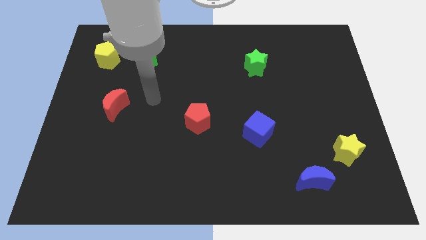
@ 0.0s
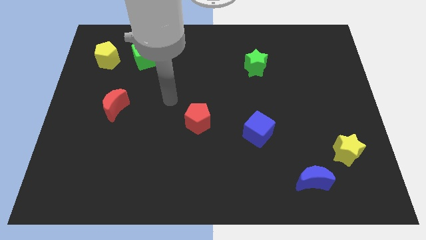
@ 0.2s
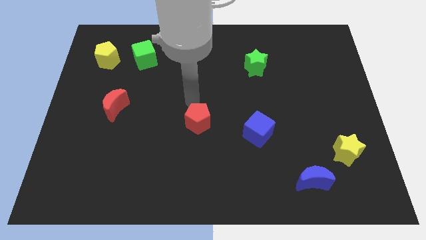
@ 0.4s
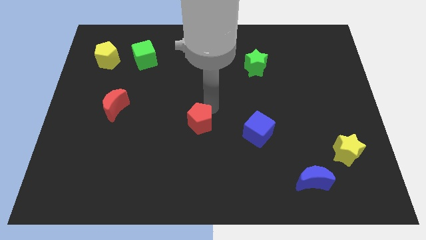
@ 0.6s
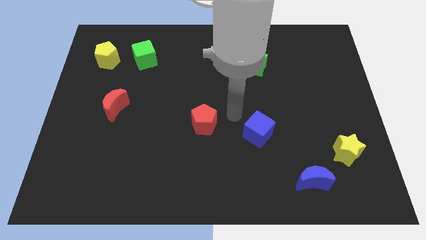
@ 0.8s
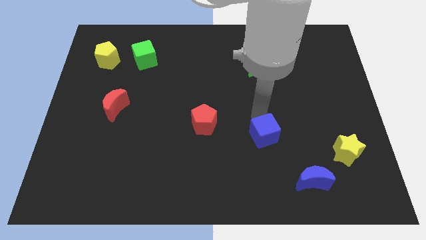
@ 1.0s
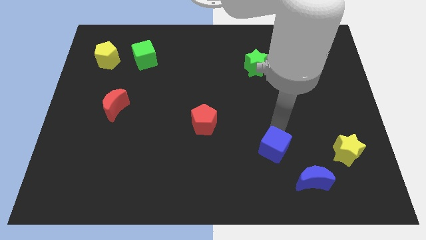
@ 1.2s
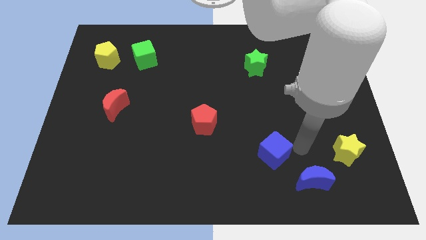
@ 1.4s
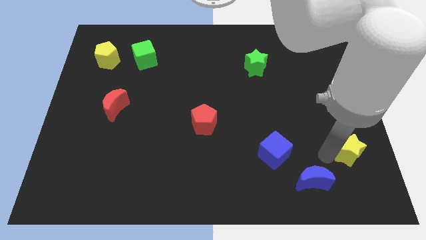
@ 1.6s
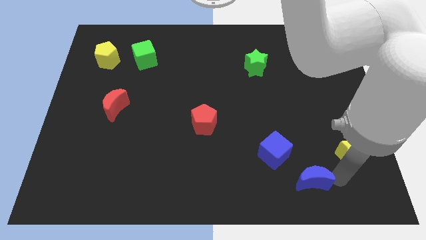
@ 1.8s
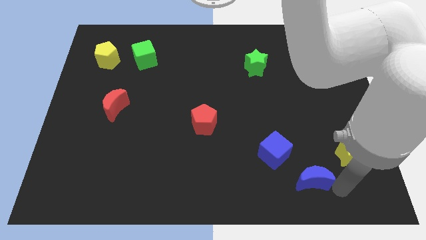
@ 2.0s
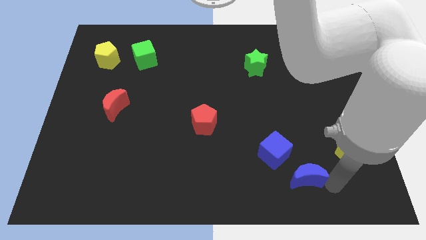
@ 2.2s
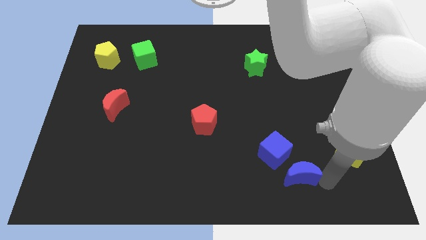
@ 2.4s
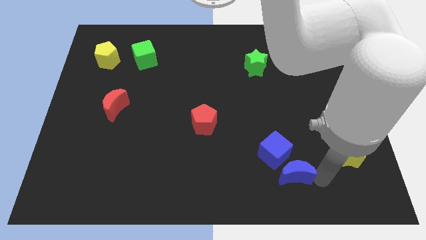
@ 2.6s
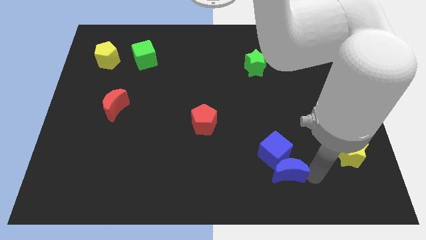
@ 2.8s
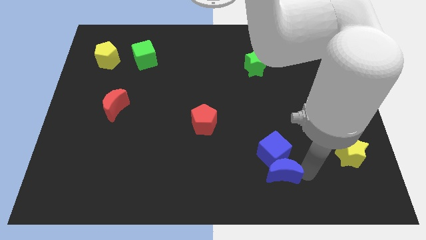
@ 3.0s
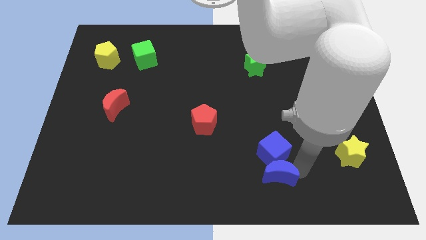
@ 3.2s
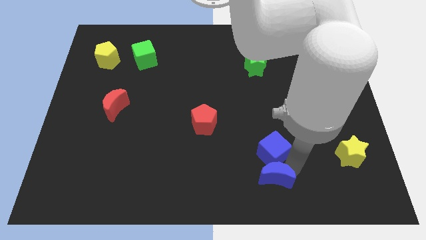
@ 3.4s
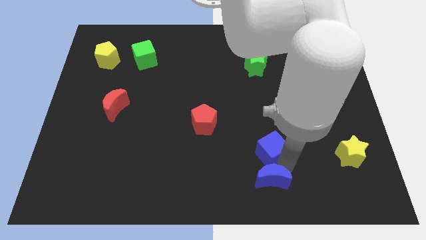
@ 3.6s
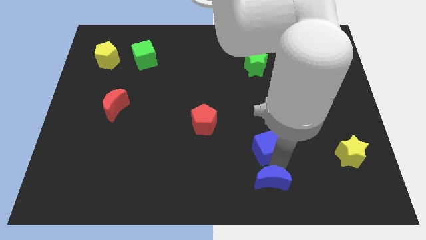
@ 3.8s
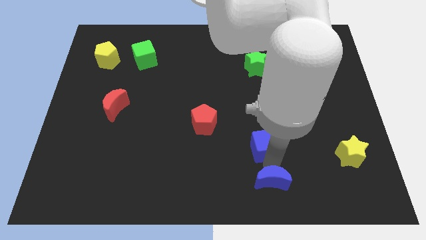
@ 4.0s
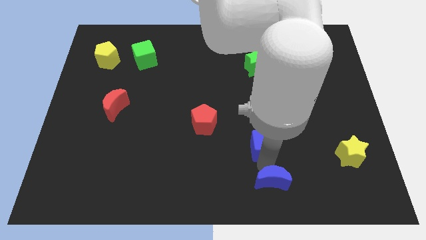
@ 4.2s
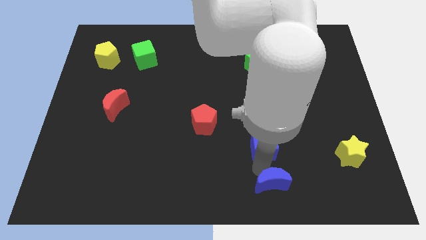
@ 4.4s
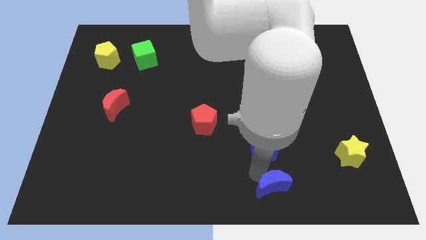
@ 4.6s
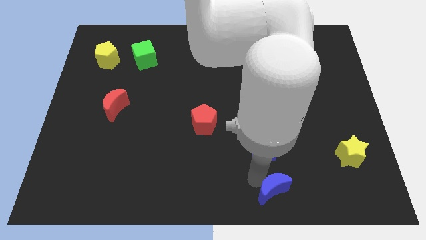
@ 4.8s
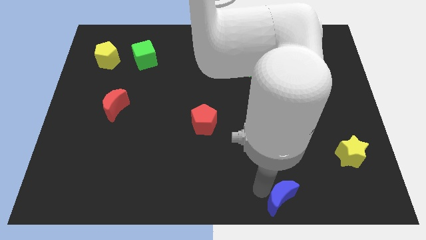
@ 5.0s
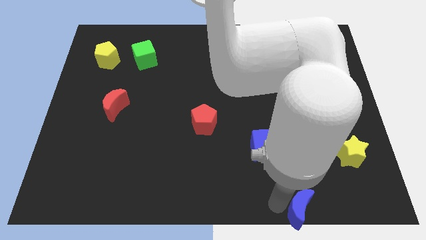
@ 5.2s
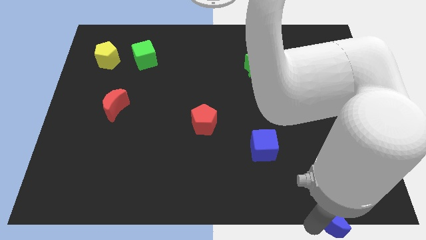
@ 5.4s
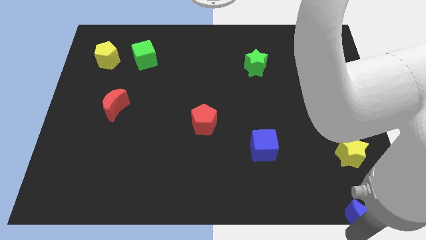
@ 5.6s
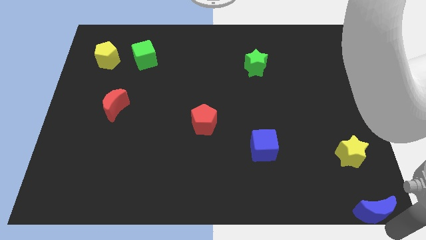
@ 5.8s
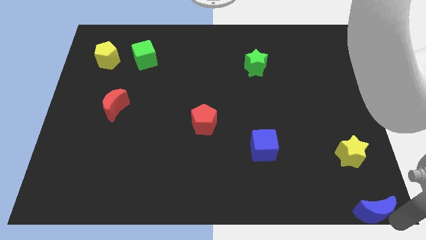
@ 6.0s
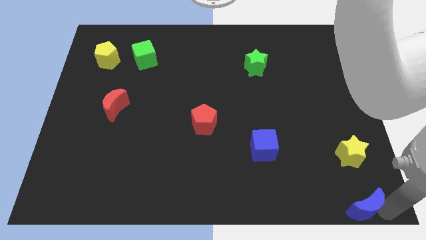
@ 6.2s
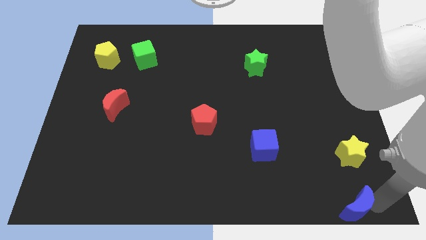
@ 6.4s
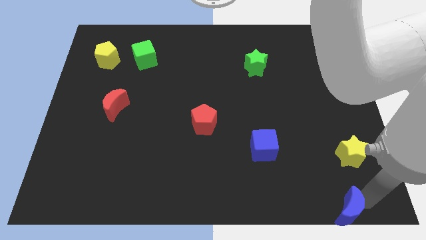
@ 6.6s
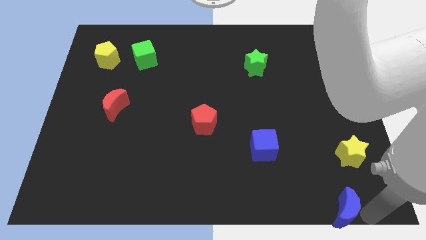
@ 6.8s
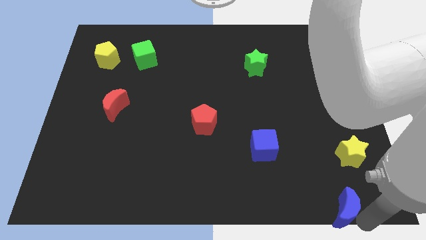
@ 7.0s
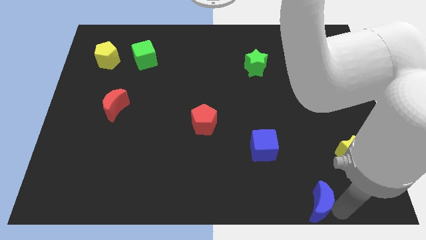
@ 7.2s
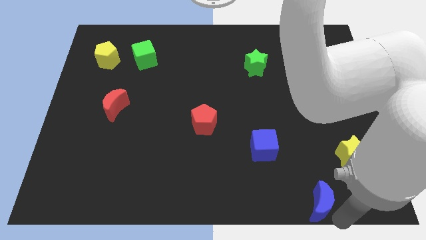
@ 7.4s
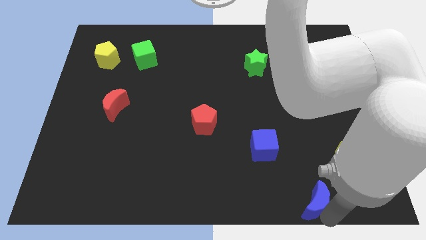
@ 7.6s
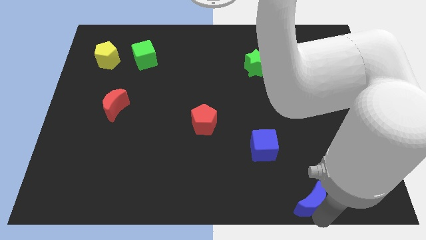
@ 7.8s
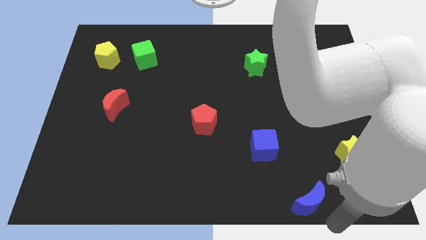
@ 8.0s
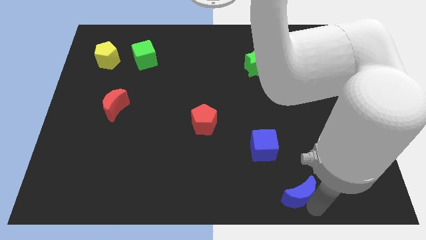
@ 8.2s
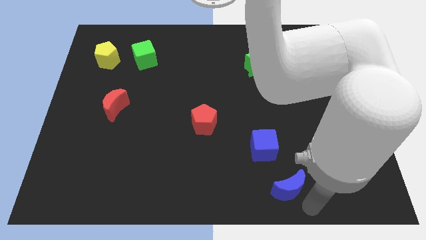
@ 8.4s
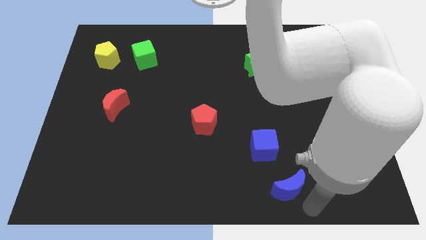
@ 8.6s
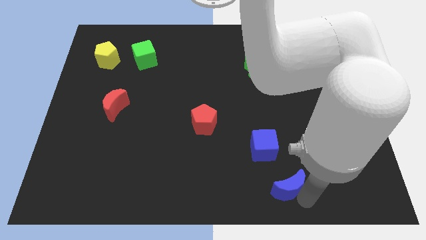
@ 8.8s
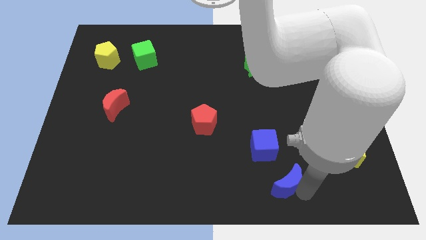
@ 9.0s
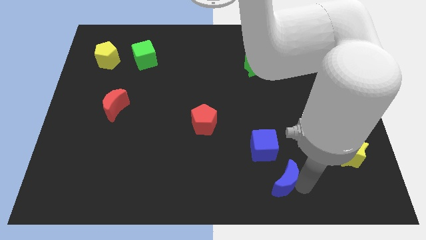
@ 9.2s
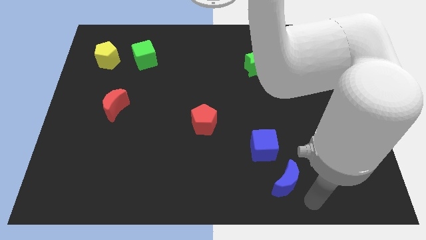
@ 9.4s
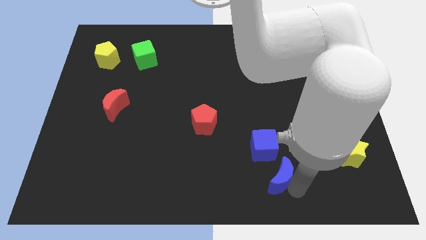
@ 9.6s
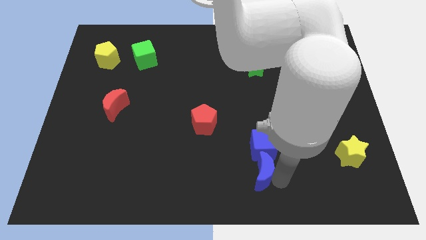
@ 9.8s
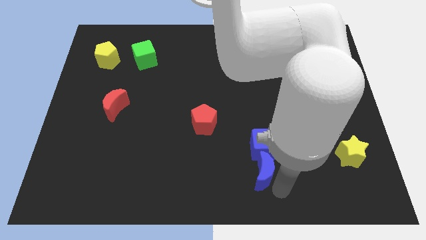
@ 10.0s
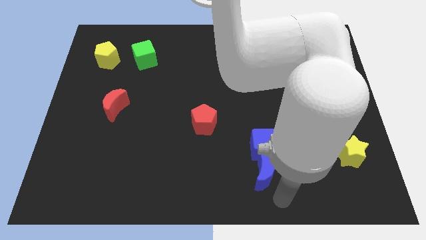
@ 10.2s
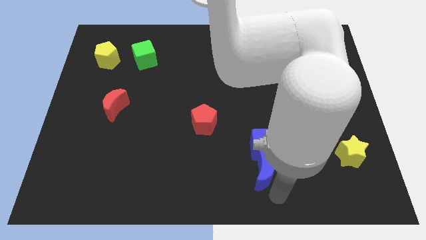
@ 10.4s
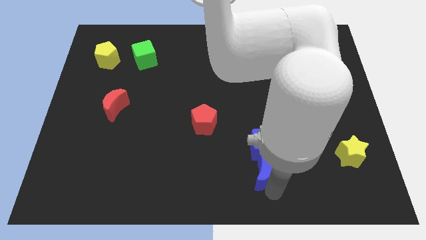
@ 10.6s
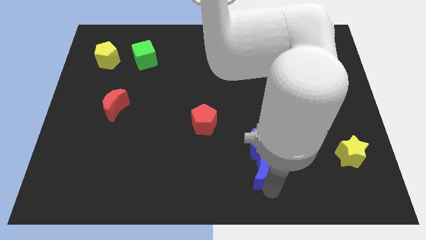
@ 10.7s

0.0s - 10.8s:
slightly push the blue moon upwards and left diagonally

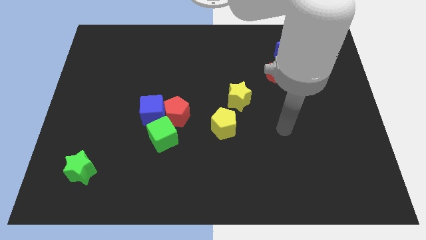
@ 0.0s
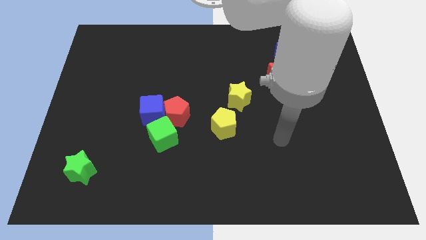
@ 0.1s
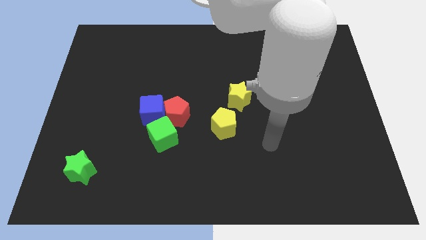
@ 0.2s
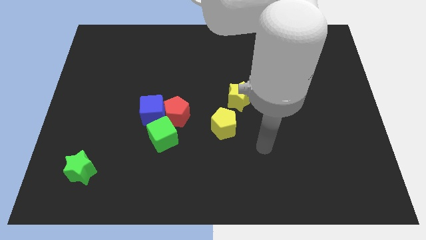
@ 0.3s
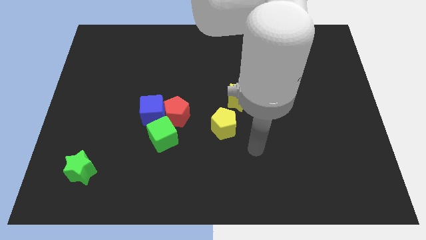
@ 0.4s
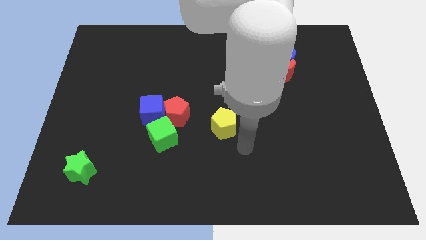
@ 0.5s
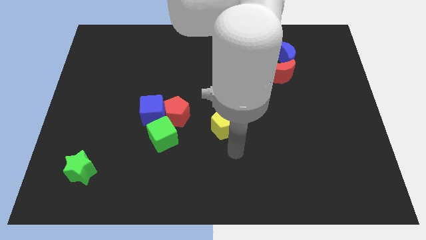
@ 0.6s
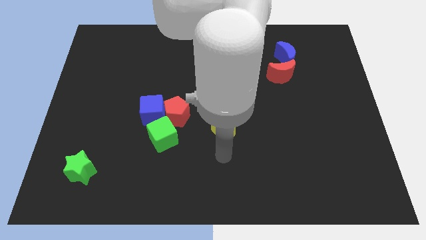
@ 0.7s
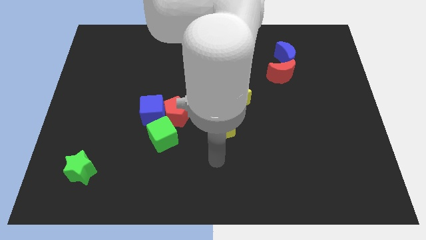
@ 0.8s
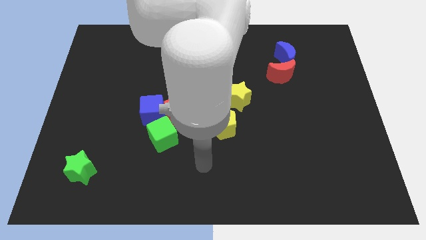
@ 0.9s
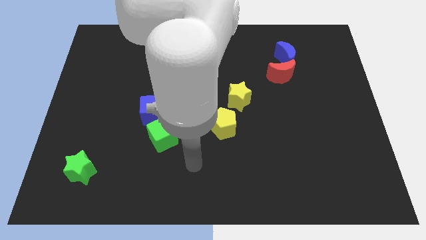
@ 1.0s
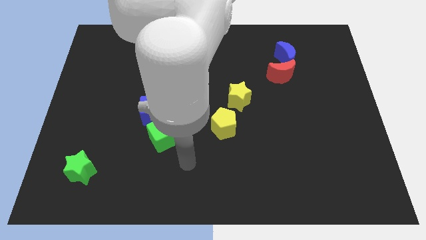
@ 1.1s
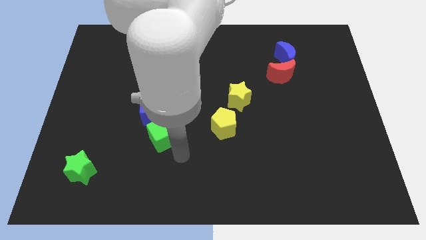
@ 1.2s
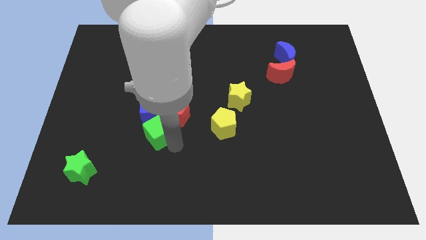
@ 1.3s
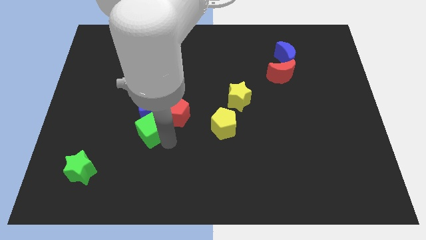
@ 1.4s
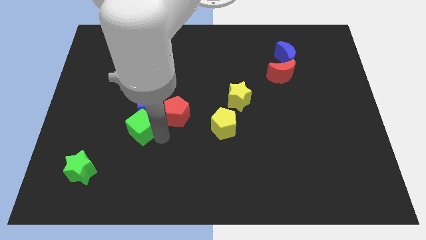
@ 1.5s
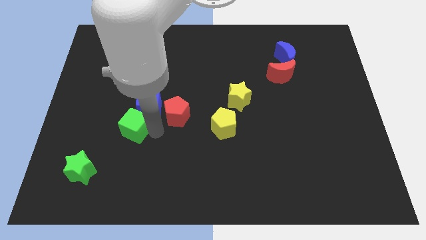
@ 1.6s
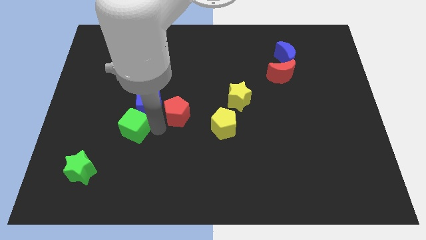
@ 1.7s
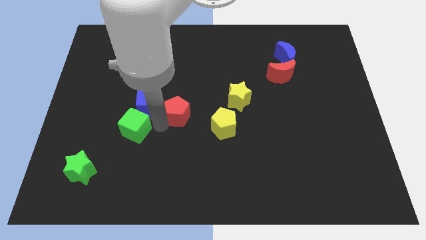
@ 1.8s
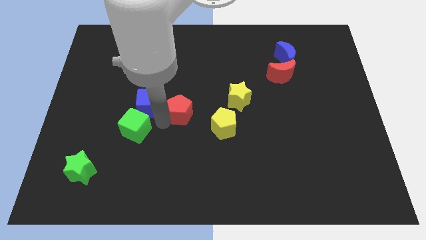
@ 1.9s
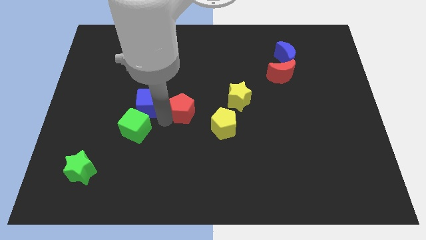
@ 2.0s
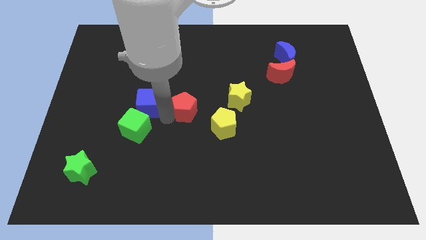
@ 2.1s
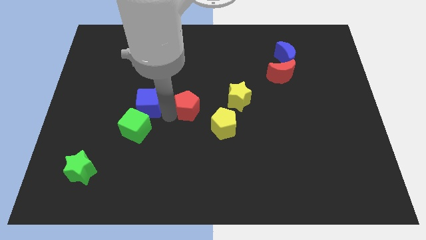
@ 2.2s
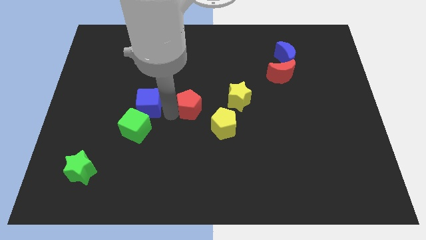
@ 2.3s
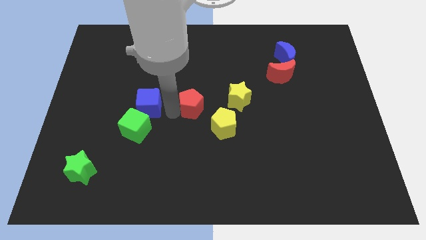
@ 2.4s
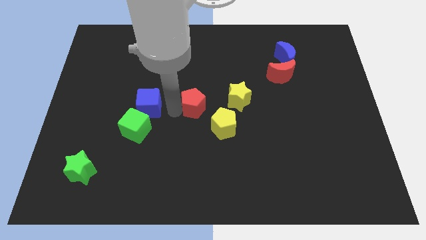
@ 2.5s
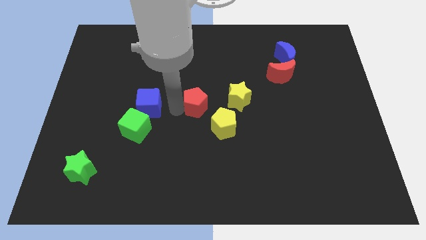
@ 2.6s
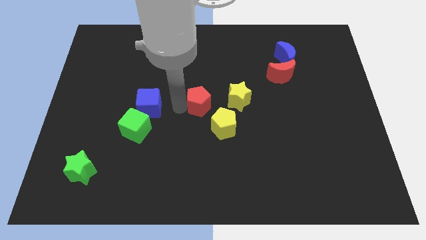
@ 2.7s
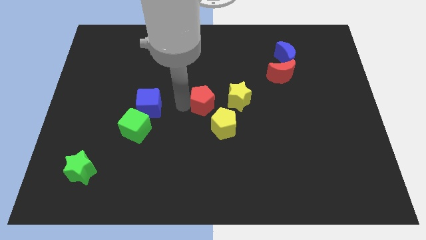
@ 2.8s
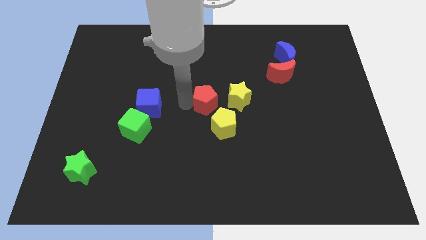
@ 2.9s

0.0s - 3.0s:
slide the red pentagon upwards and right somewhat
